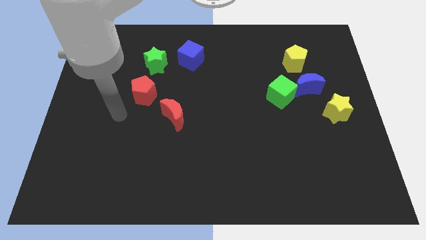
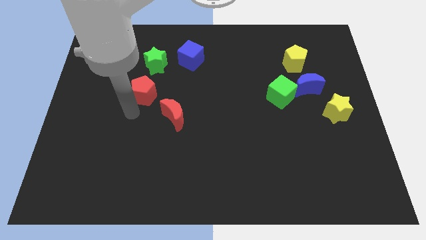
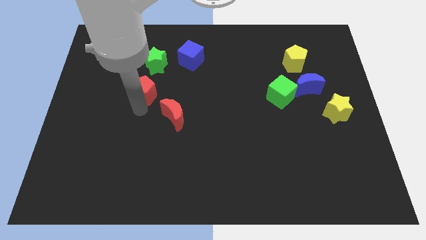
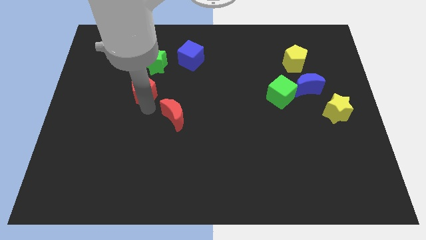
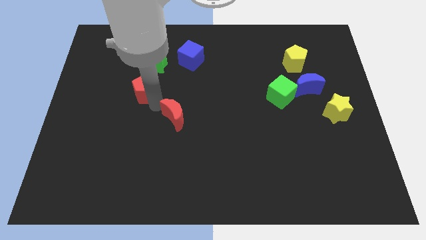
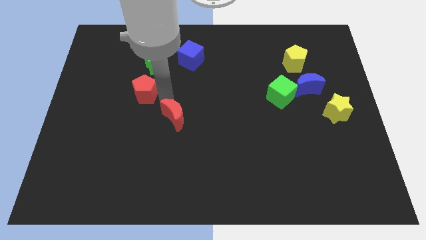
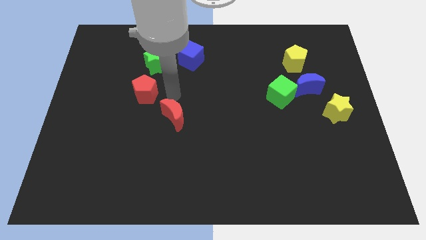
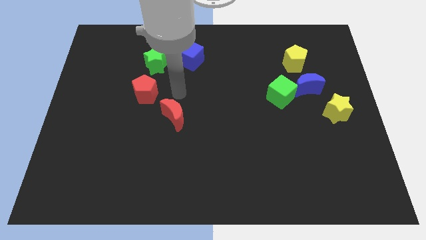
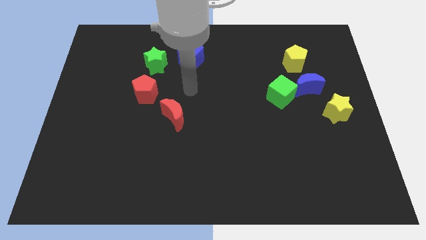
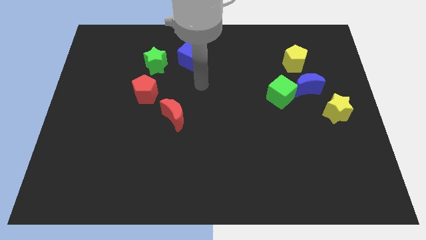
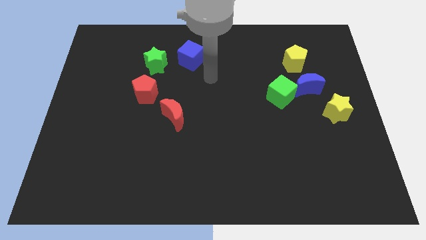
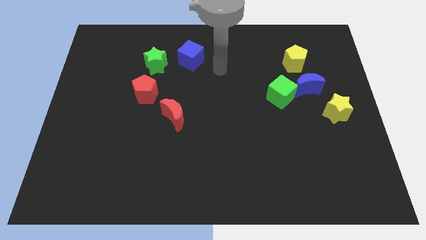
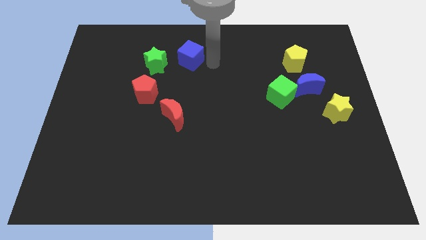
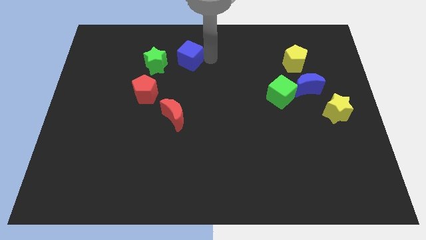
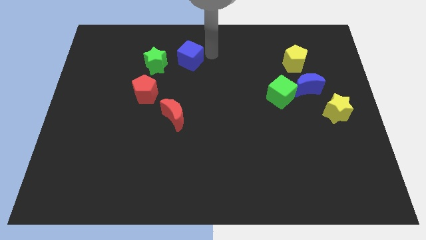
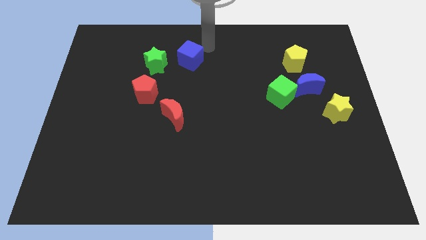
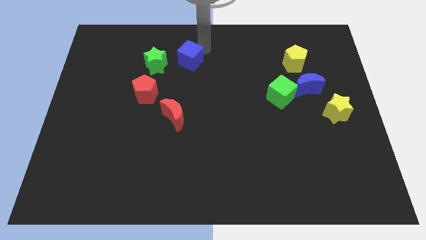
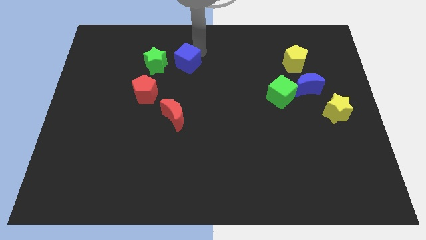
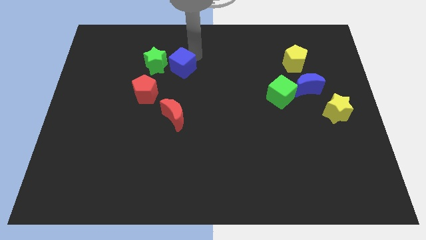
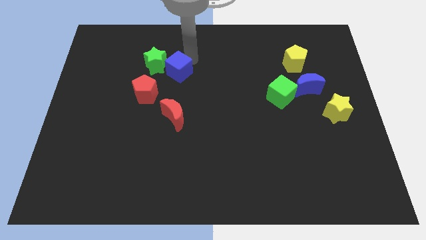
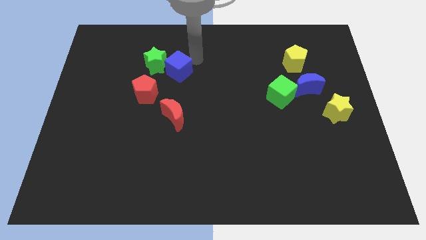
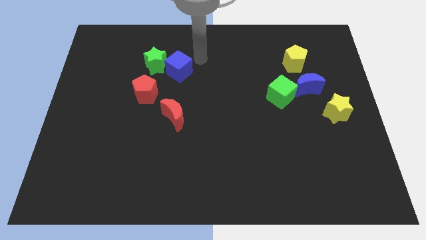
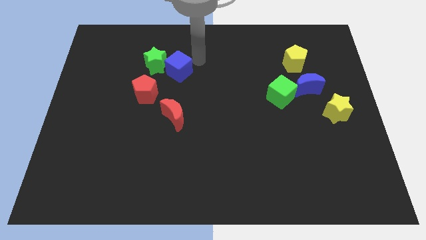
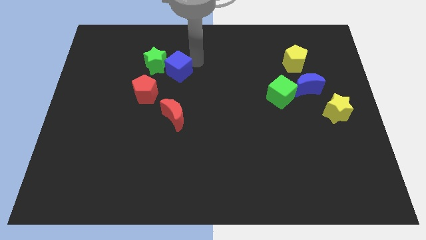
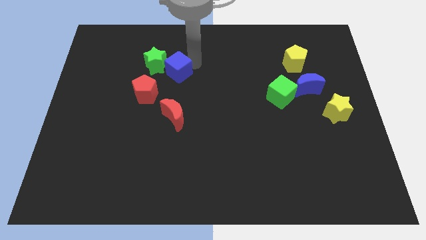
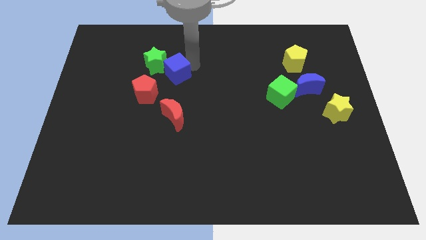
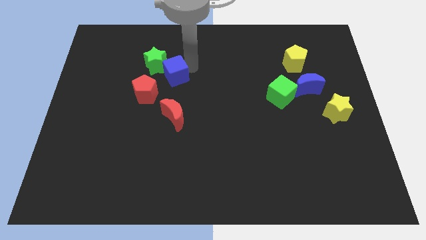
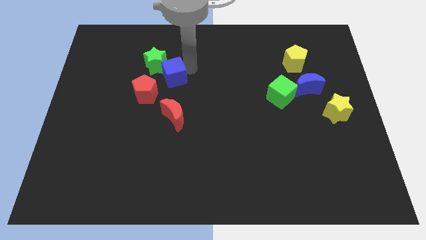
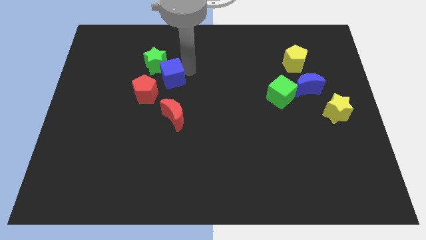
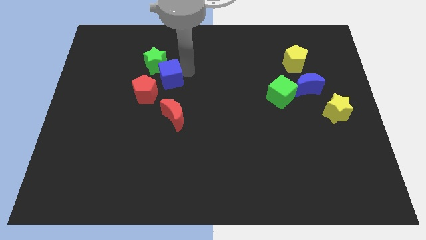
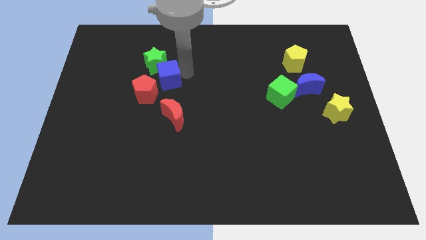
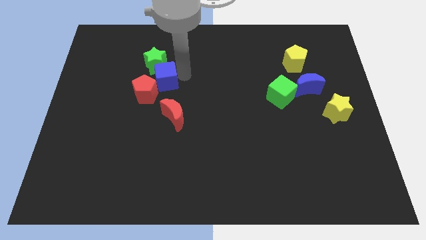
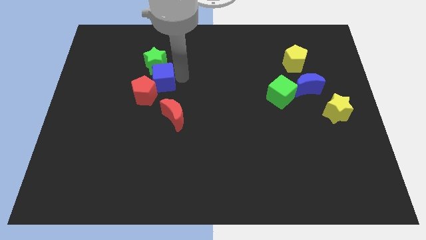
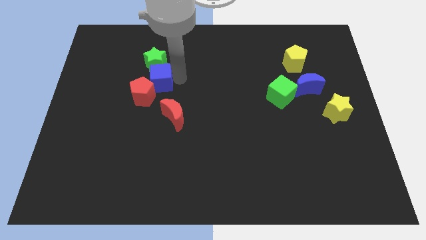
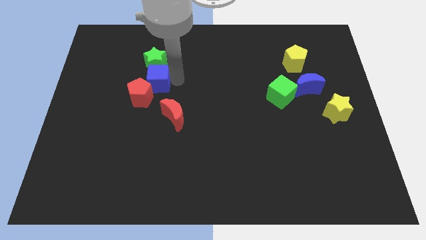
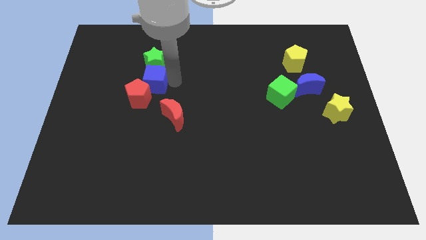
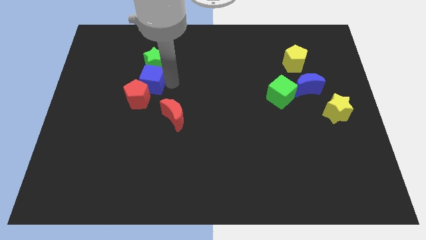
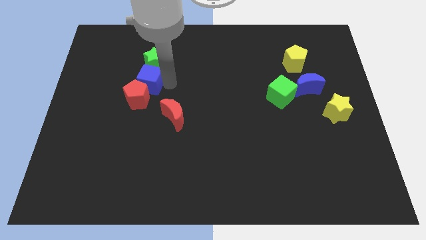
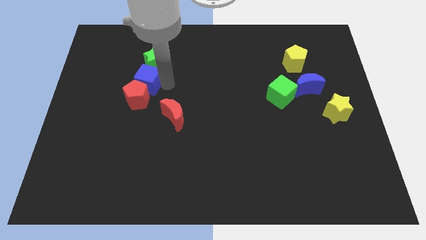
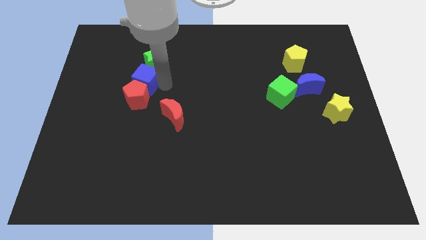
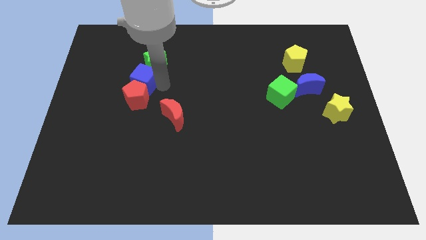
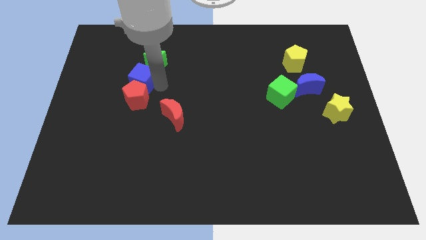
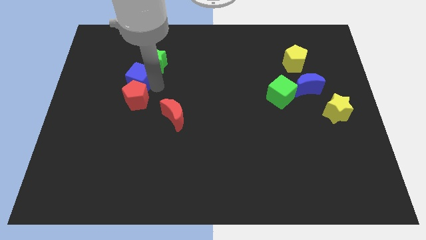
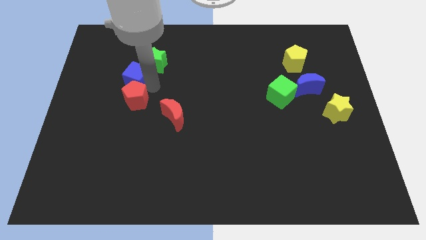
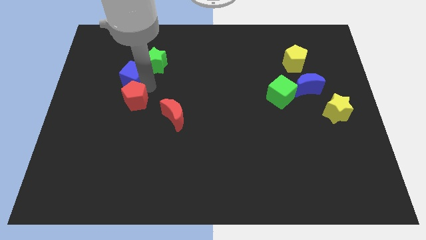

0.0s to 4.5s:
put the blue cube to the left of the green star

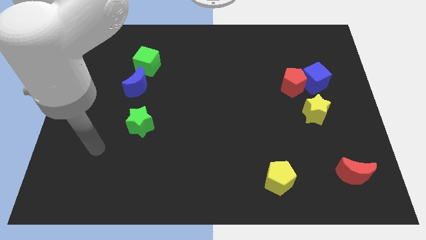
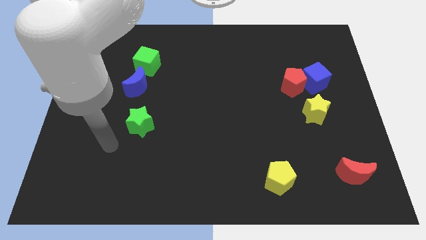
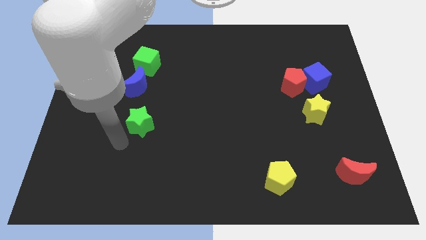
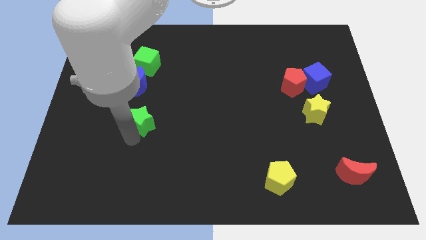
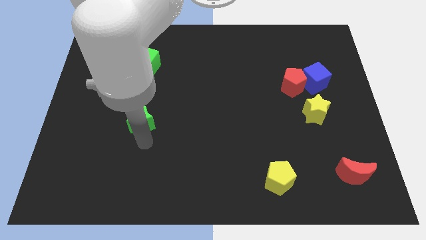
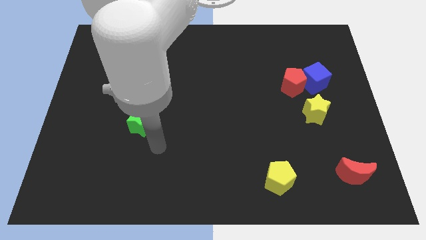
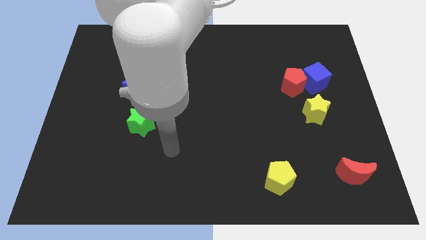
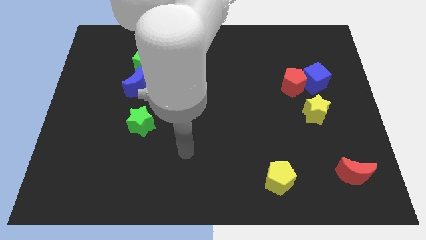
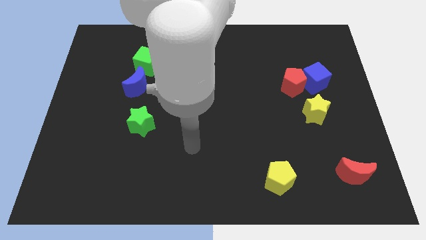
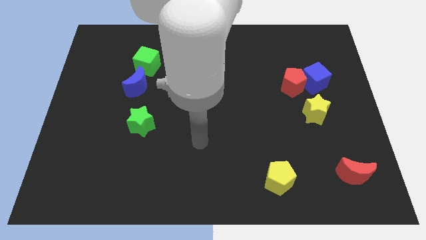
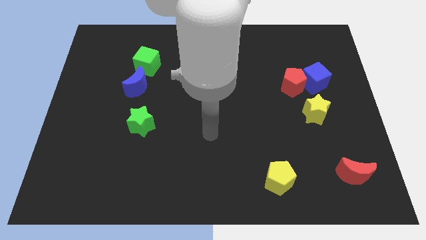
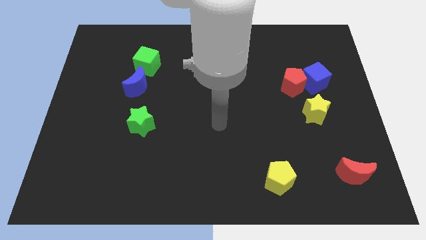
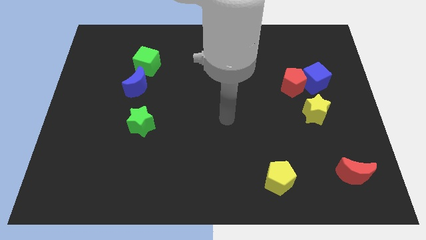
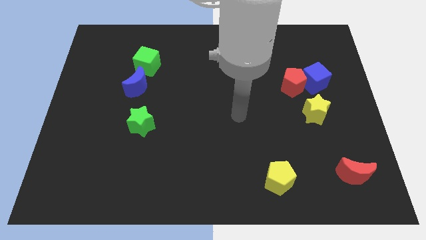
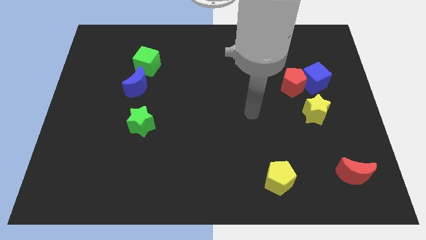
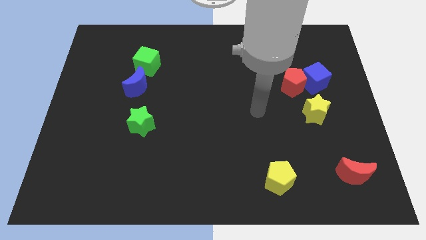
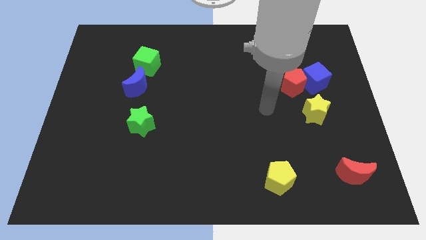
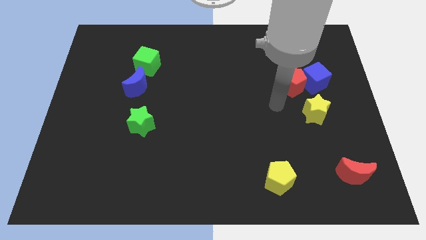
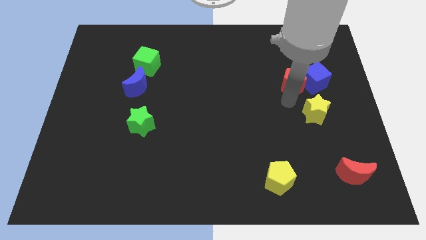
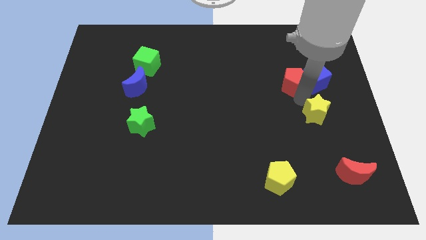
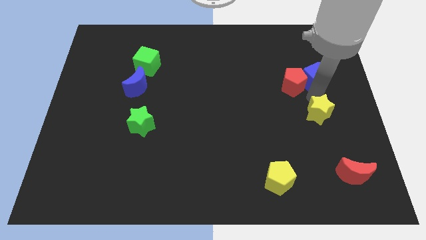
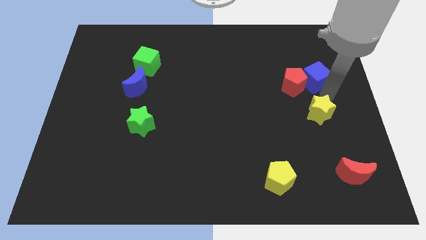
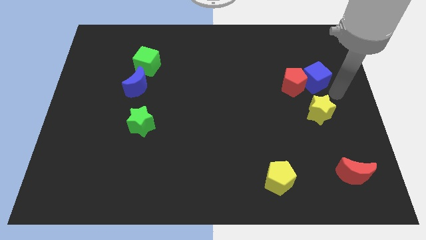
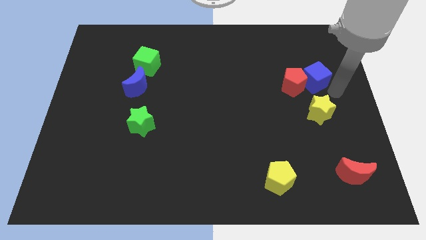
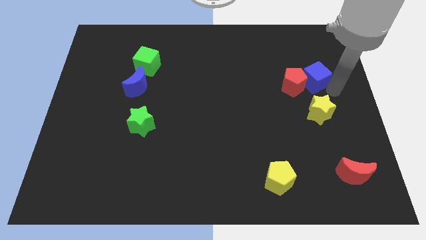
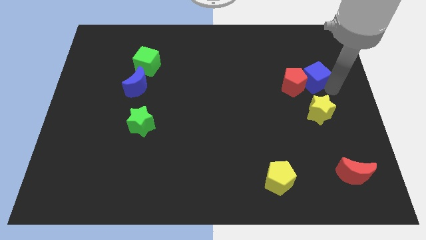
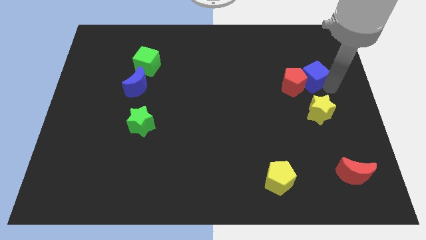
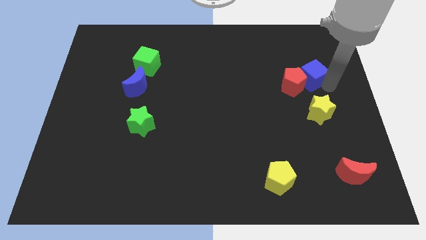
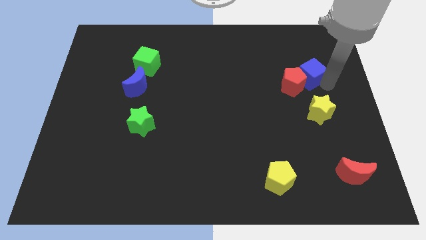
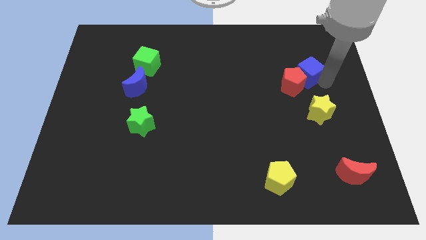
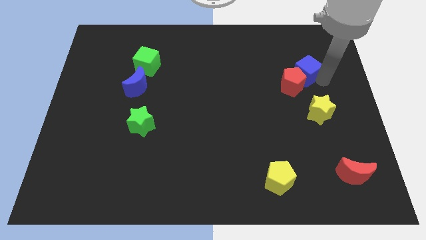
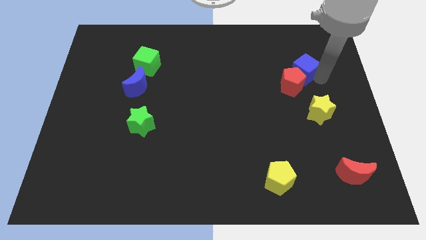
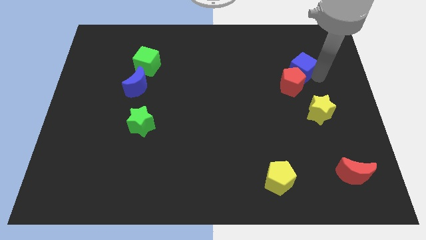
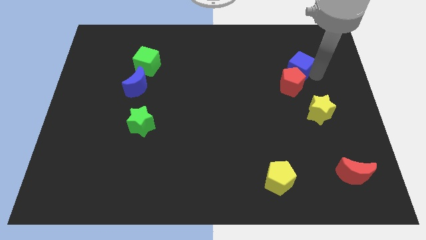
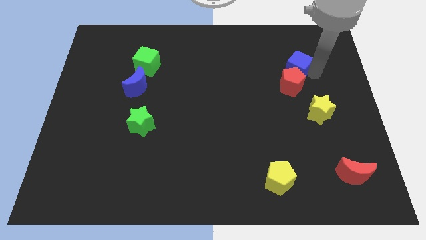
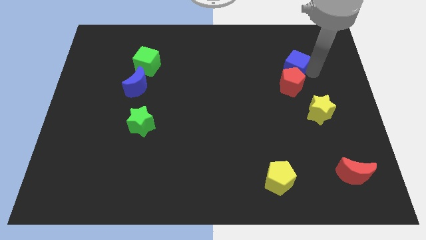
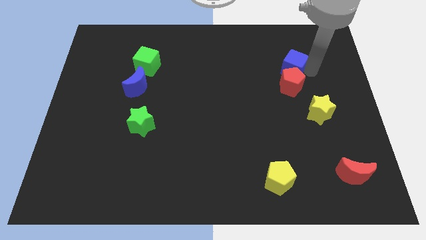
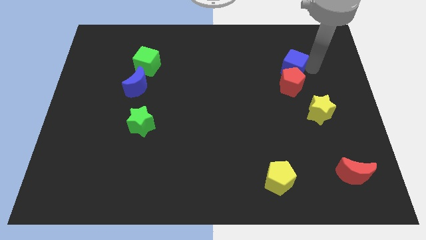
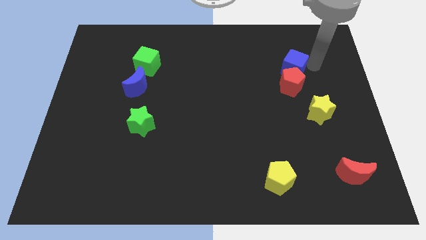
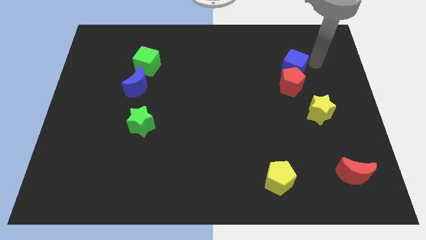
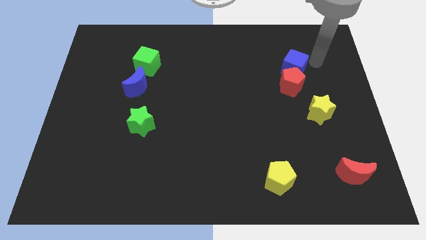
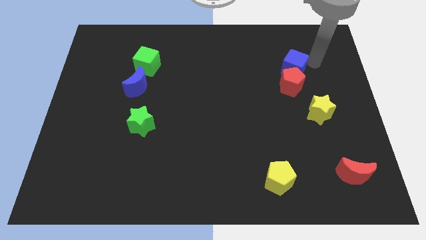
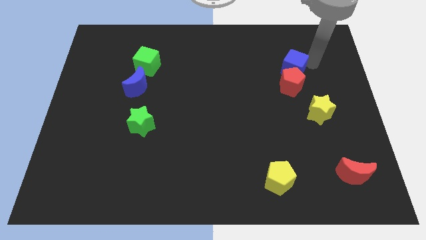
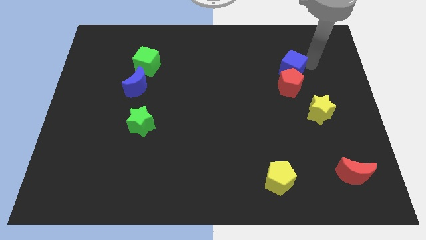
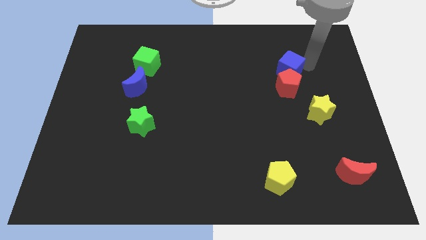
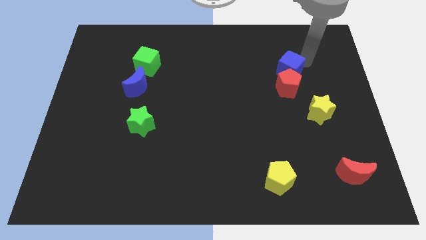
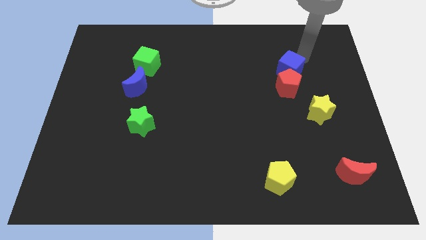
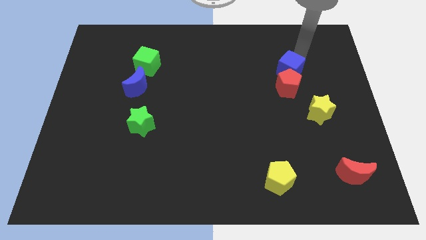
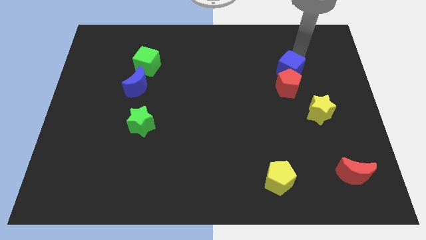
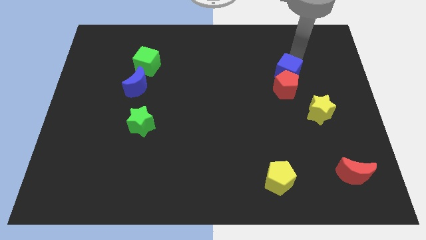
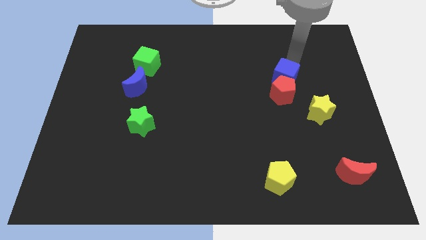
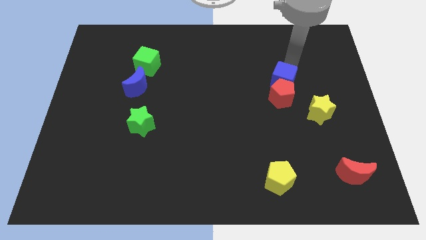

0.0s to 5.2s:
push the blue cube diagonally up and to the left of the yellow star
